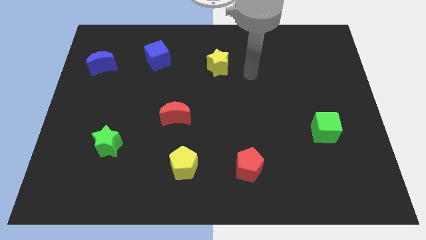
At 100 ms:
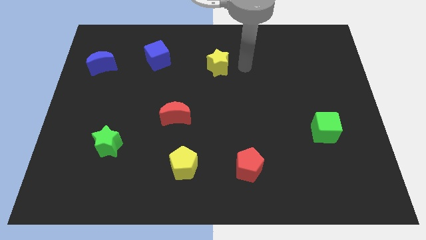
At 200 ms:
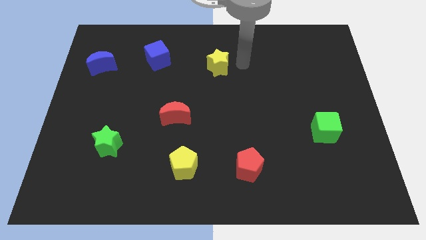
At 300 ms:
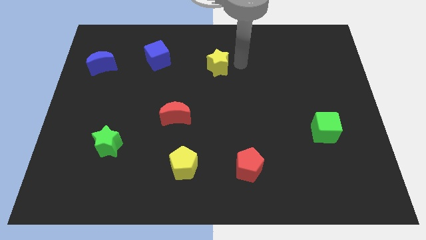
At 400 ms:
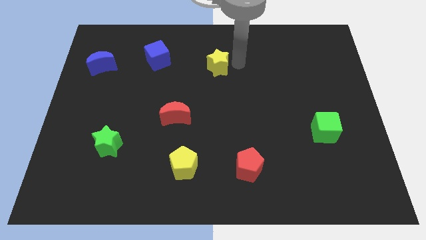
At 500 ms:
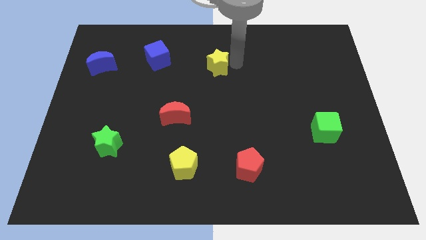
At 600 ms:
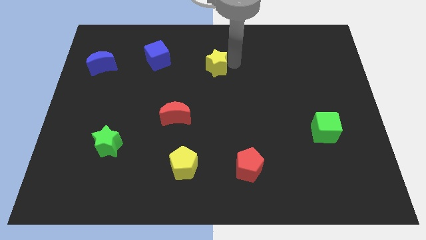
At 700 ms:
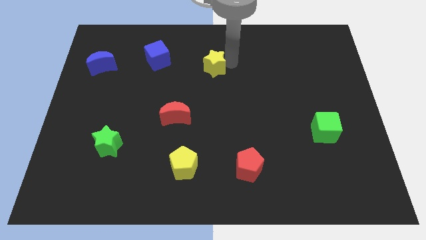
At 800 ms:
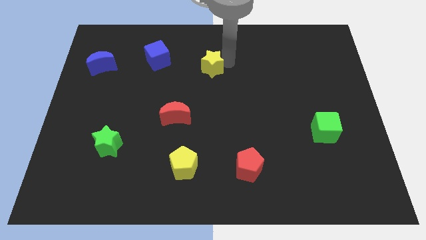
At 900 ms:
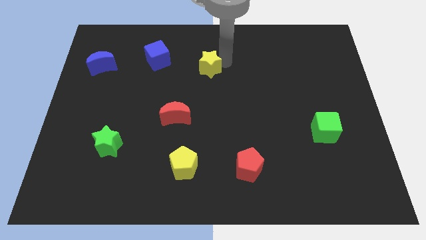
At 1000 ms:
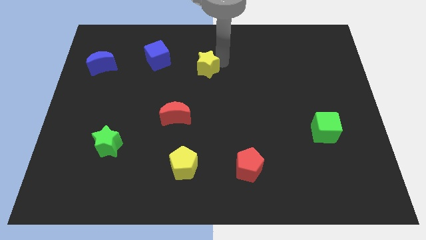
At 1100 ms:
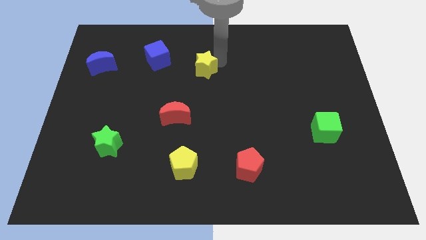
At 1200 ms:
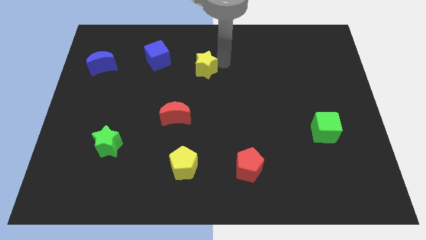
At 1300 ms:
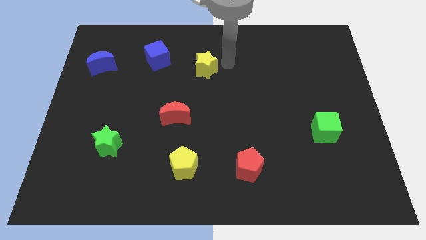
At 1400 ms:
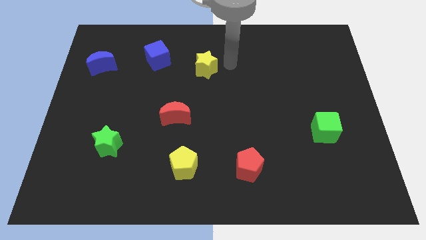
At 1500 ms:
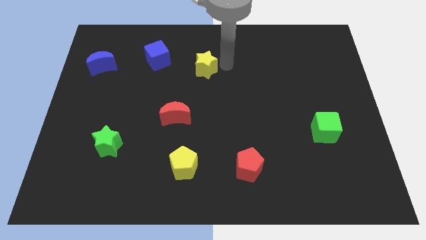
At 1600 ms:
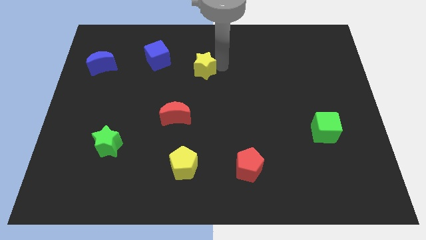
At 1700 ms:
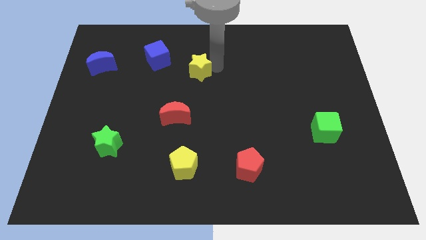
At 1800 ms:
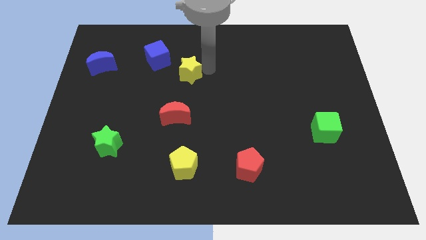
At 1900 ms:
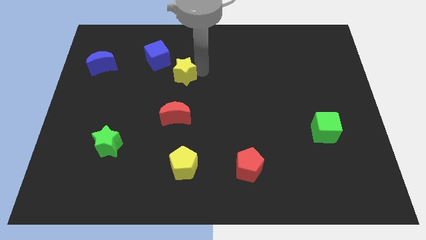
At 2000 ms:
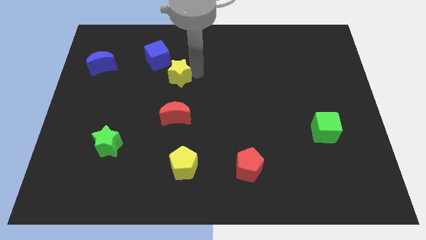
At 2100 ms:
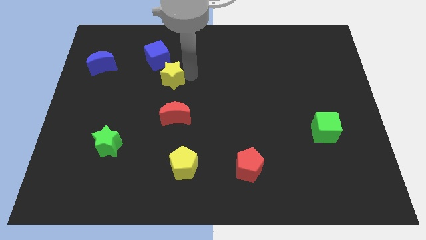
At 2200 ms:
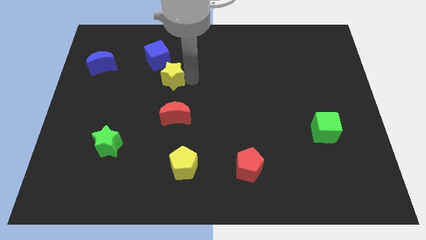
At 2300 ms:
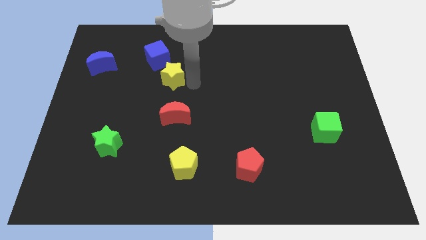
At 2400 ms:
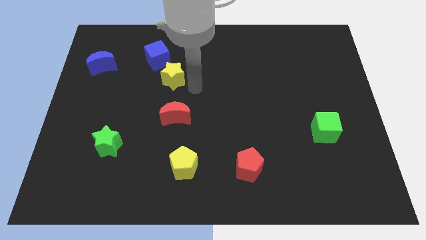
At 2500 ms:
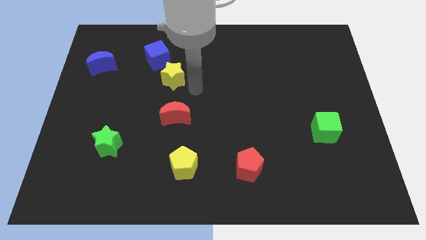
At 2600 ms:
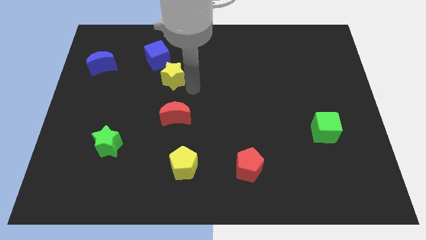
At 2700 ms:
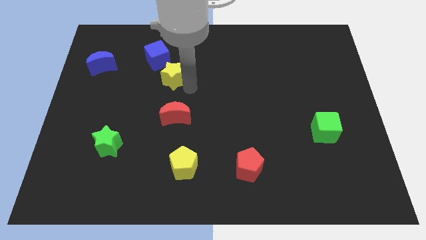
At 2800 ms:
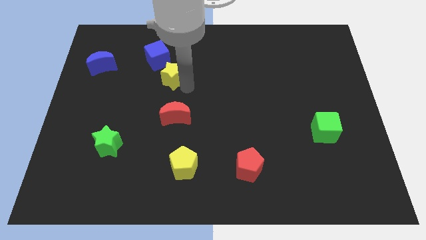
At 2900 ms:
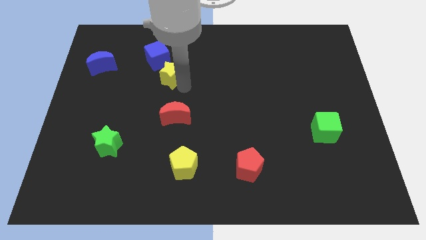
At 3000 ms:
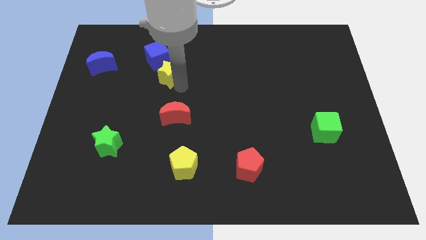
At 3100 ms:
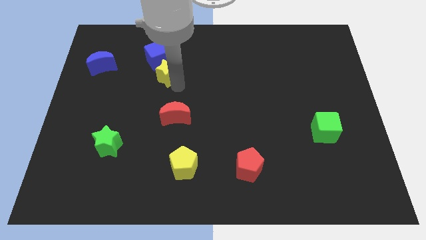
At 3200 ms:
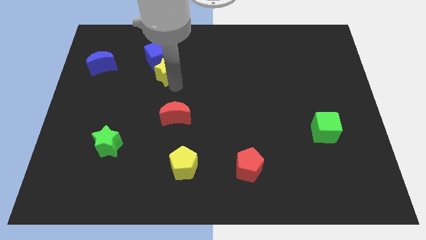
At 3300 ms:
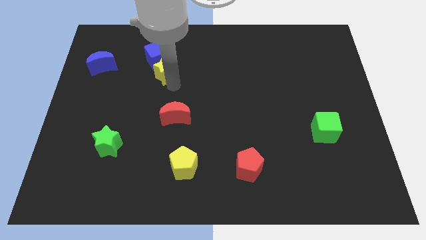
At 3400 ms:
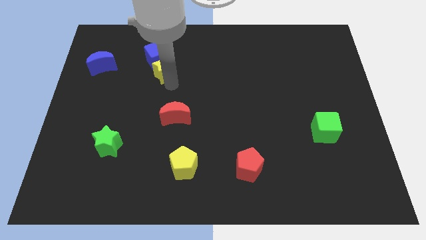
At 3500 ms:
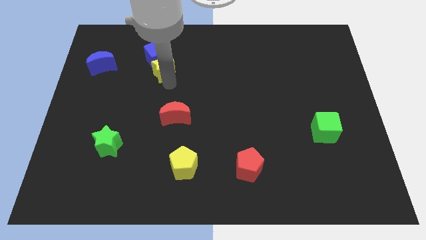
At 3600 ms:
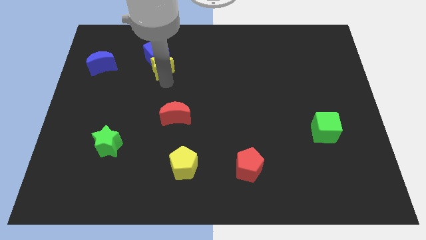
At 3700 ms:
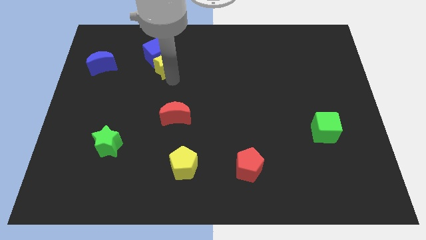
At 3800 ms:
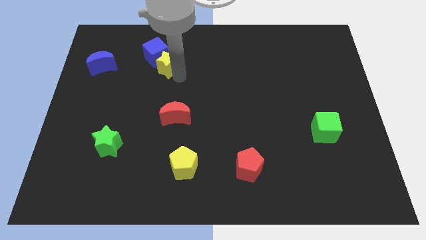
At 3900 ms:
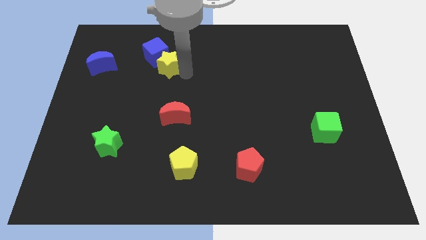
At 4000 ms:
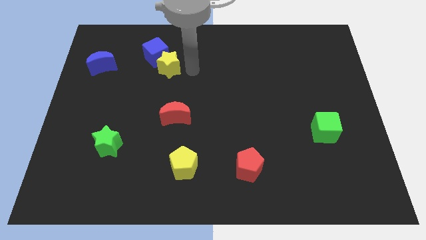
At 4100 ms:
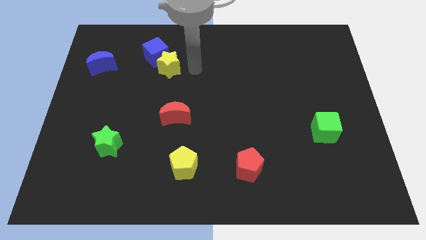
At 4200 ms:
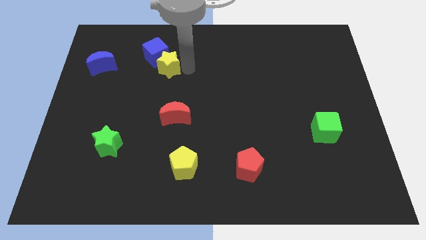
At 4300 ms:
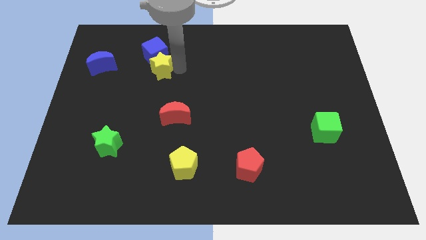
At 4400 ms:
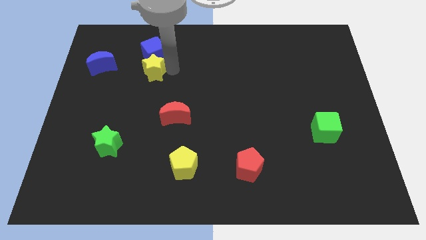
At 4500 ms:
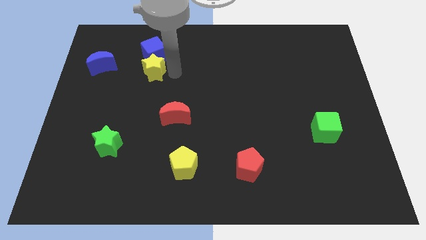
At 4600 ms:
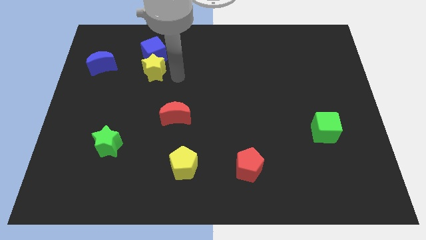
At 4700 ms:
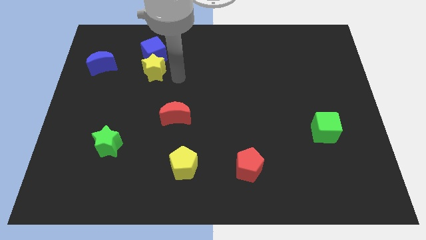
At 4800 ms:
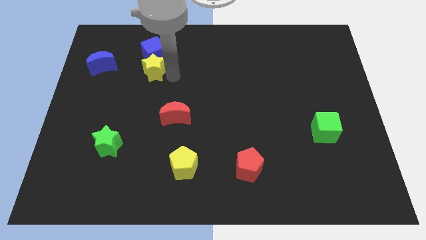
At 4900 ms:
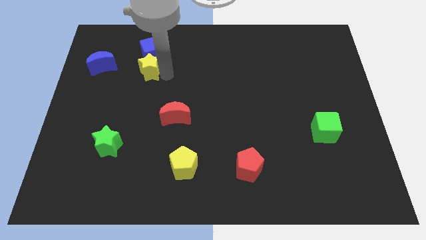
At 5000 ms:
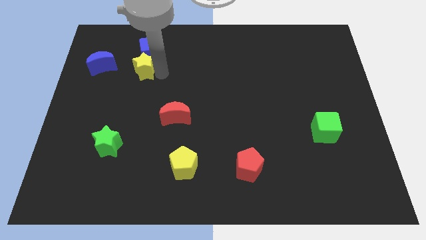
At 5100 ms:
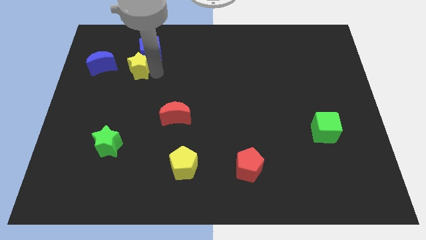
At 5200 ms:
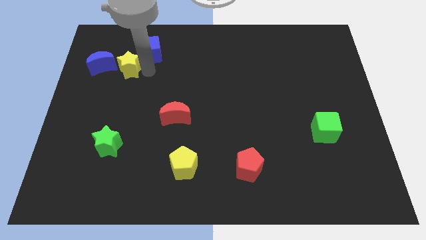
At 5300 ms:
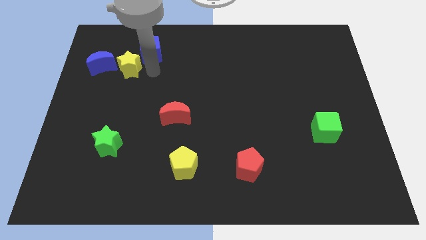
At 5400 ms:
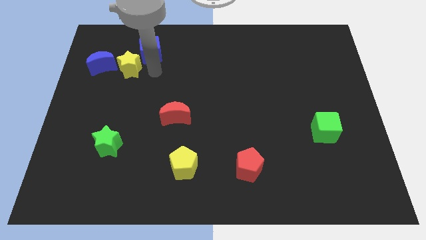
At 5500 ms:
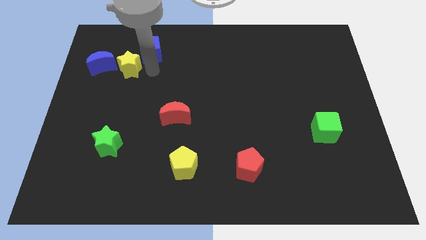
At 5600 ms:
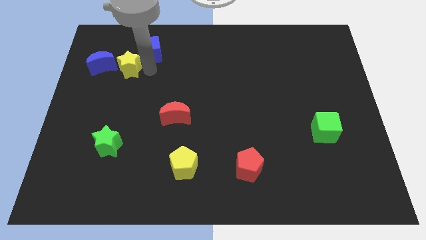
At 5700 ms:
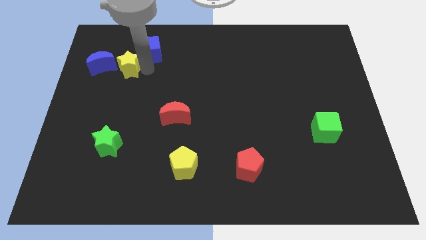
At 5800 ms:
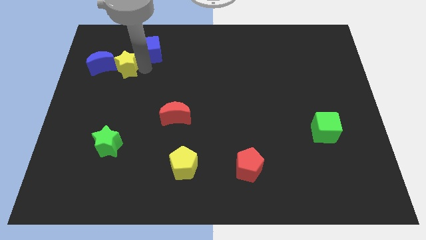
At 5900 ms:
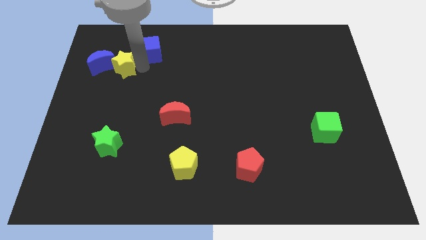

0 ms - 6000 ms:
put the yellow star towards the blue moon

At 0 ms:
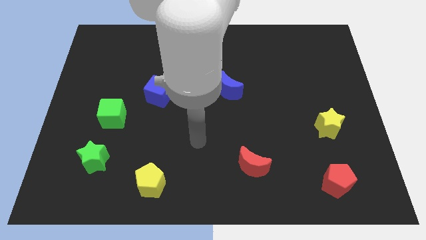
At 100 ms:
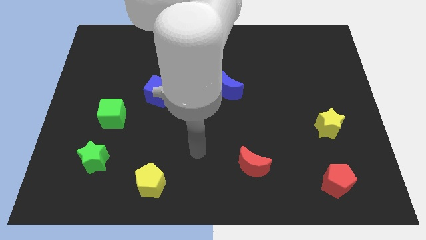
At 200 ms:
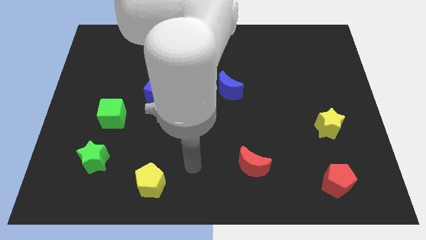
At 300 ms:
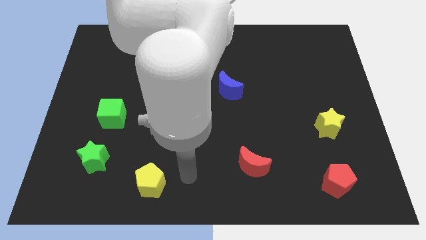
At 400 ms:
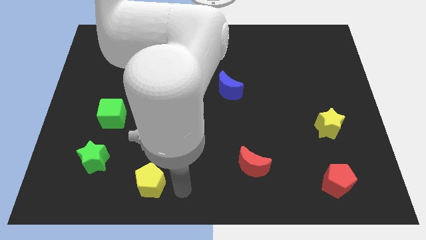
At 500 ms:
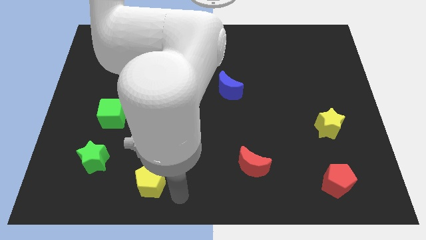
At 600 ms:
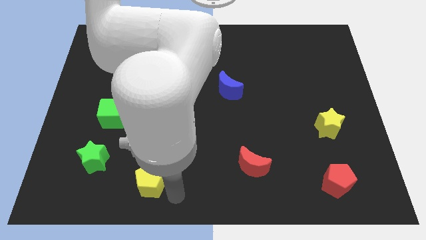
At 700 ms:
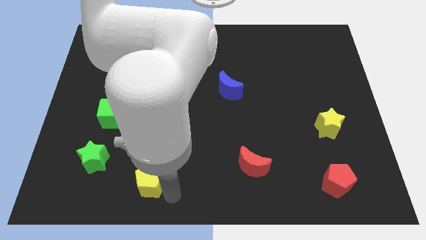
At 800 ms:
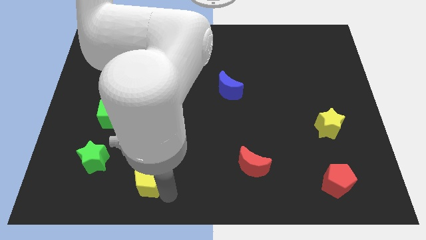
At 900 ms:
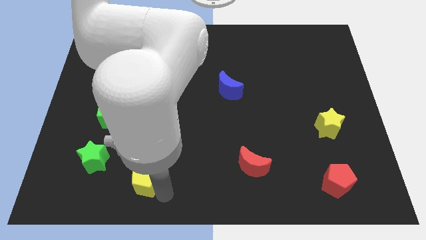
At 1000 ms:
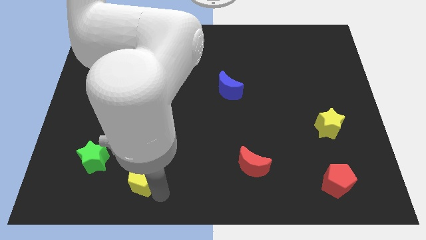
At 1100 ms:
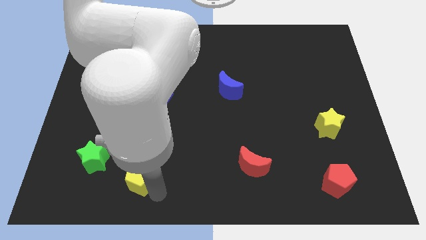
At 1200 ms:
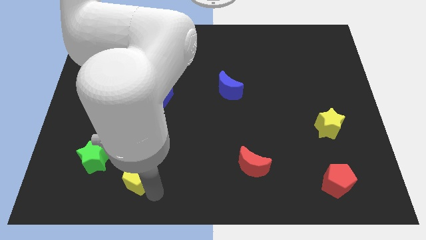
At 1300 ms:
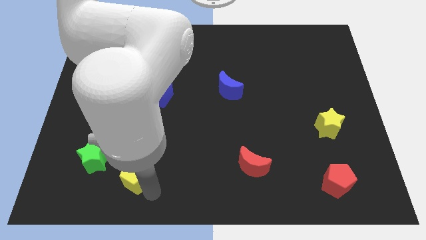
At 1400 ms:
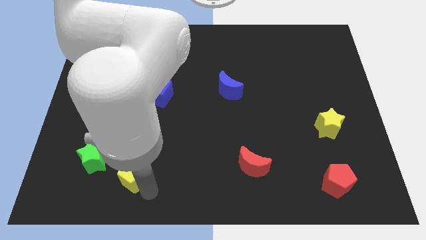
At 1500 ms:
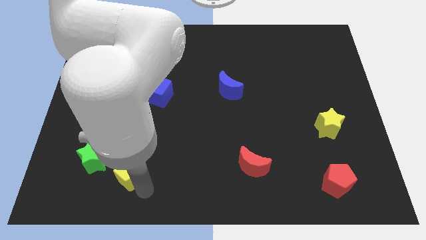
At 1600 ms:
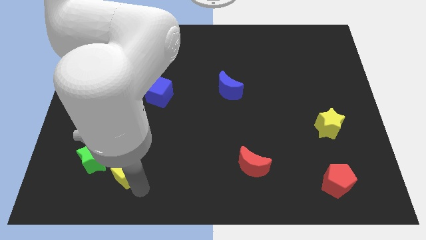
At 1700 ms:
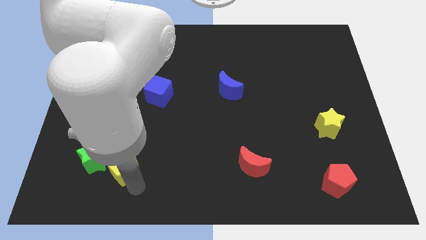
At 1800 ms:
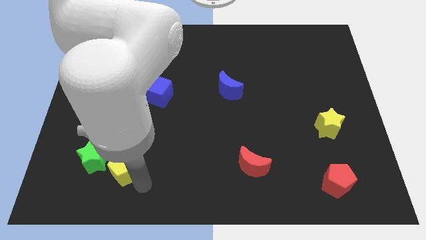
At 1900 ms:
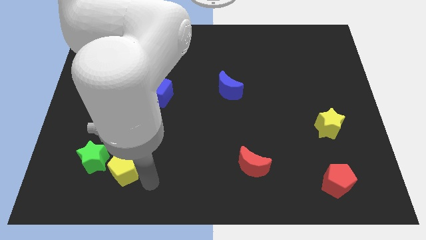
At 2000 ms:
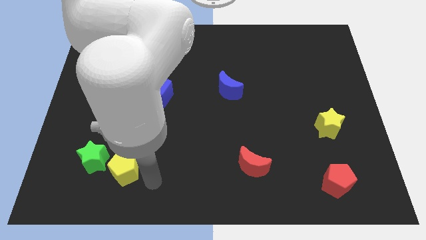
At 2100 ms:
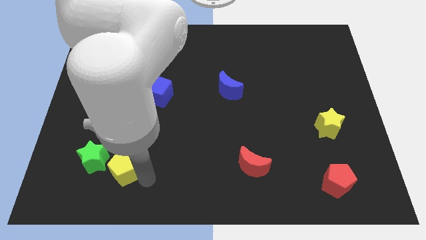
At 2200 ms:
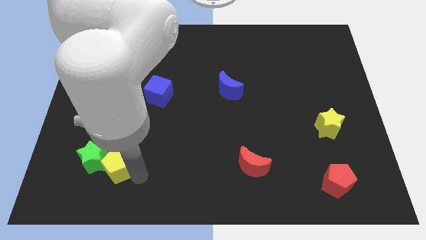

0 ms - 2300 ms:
move the yellow pentagon close to the green star
